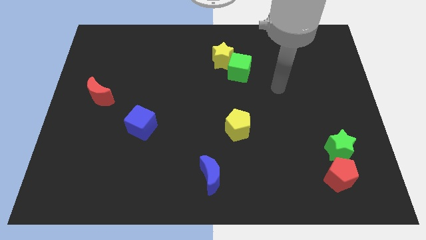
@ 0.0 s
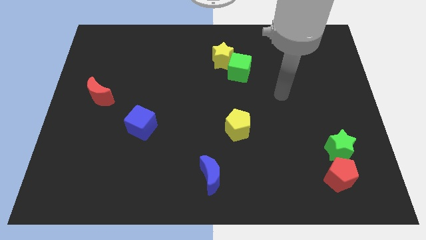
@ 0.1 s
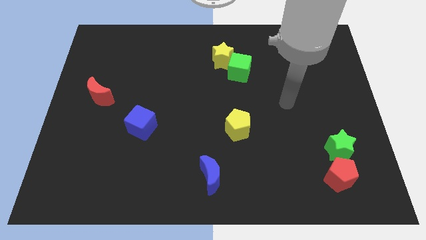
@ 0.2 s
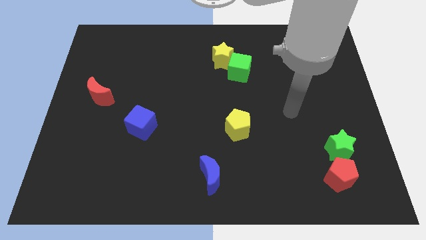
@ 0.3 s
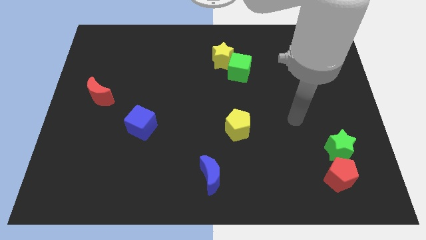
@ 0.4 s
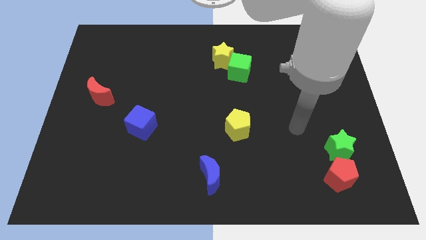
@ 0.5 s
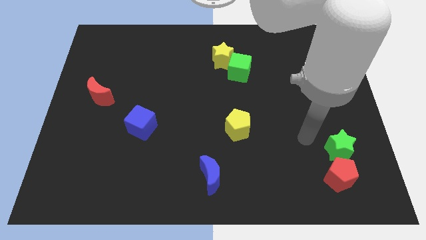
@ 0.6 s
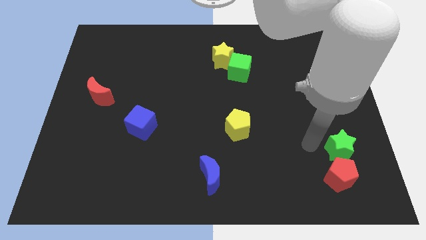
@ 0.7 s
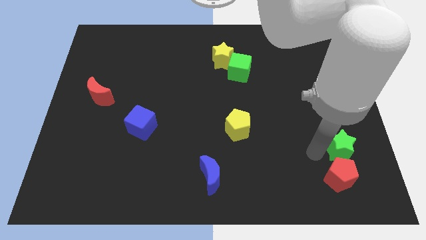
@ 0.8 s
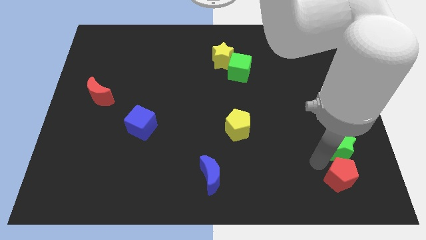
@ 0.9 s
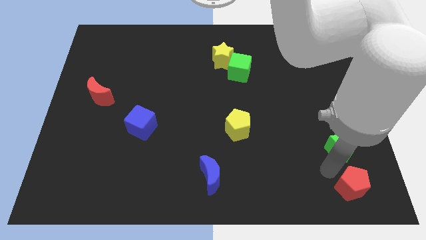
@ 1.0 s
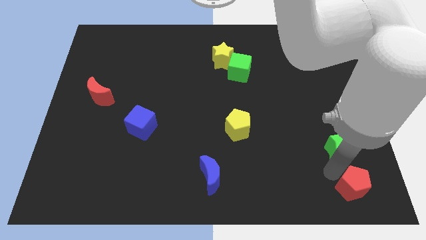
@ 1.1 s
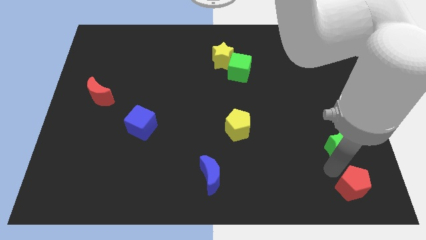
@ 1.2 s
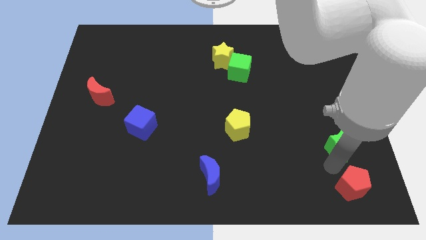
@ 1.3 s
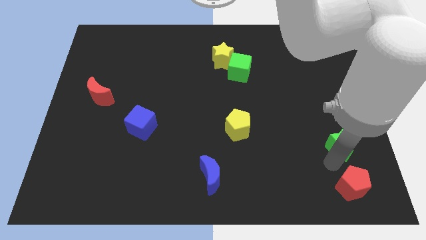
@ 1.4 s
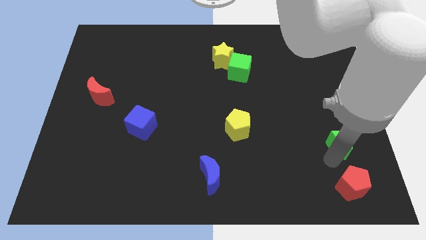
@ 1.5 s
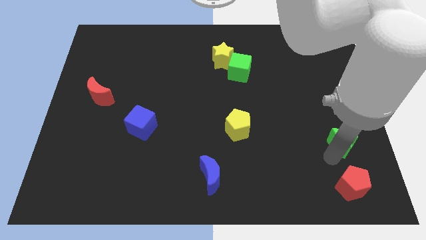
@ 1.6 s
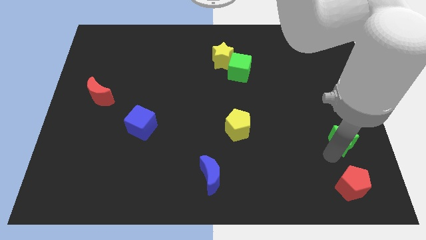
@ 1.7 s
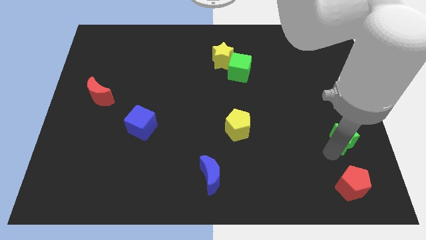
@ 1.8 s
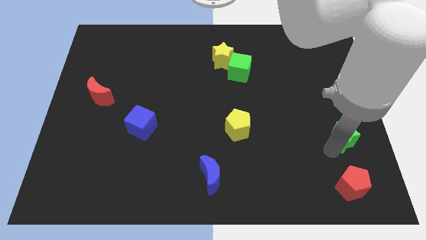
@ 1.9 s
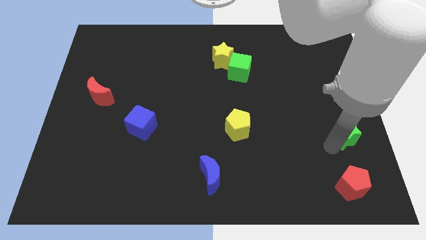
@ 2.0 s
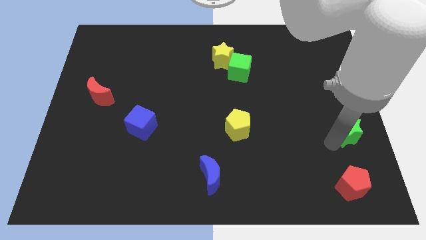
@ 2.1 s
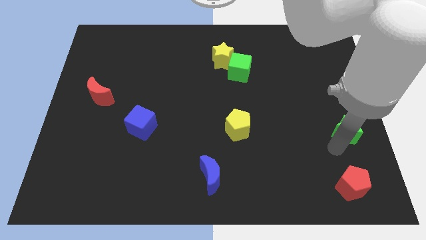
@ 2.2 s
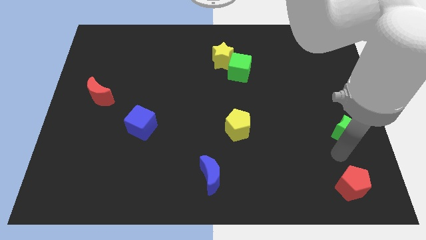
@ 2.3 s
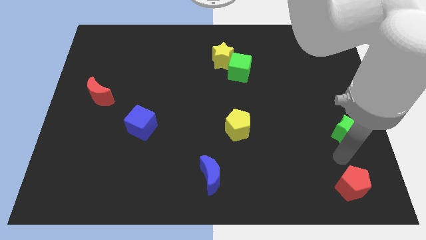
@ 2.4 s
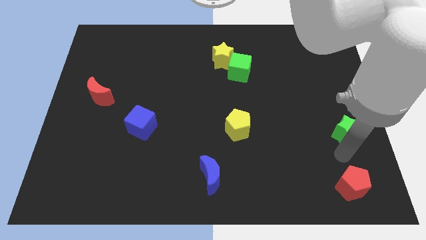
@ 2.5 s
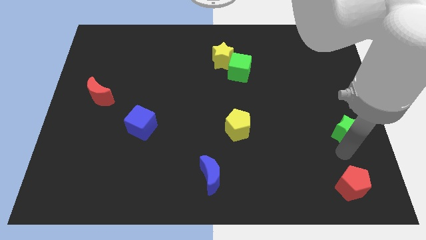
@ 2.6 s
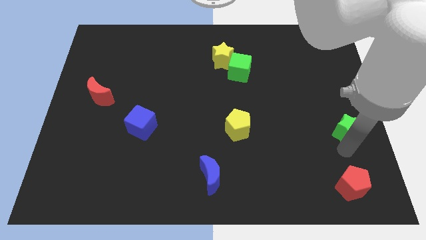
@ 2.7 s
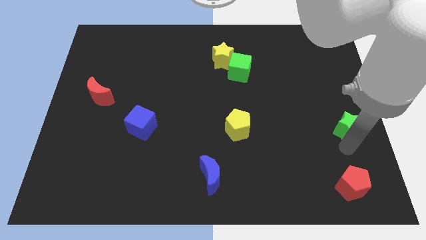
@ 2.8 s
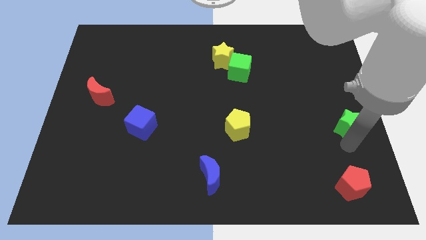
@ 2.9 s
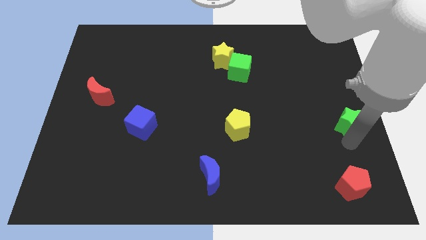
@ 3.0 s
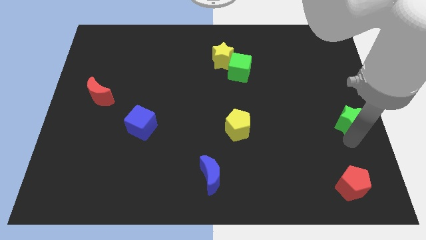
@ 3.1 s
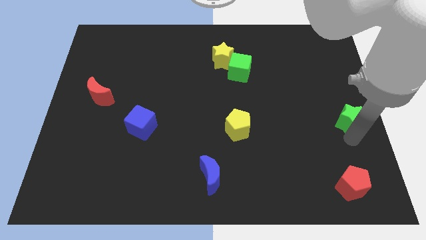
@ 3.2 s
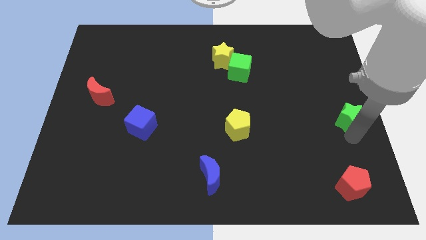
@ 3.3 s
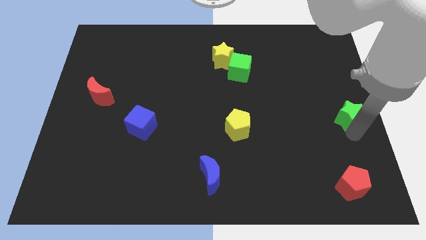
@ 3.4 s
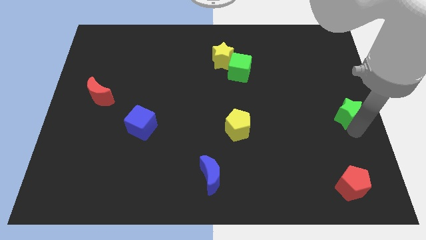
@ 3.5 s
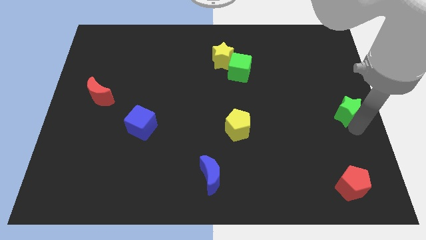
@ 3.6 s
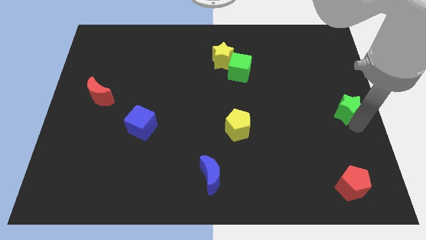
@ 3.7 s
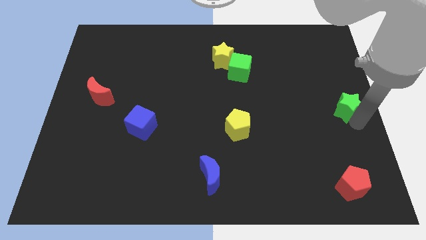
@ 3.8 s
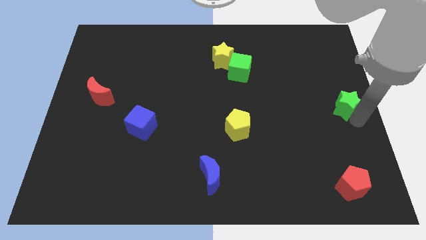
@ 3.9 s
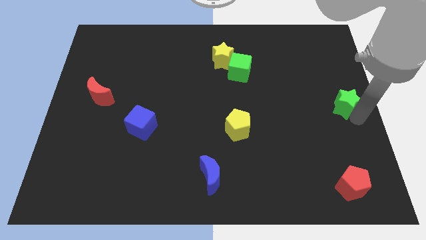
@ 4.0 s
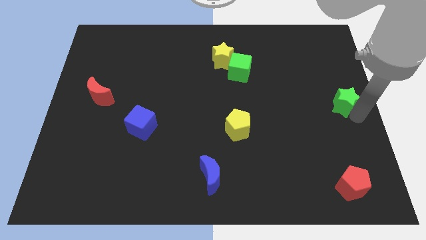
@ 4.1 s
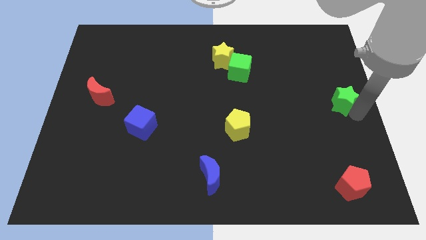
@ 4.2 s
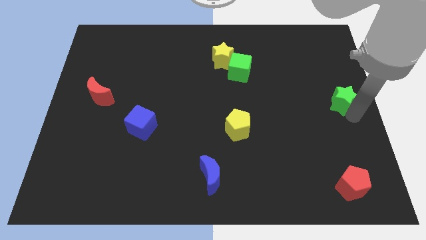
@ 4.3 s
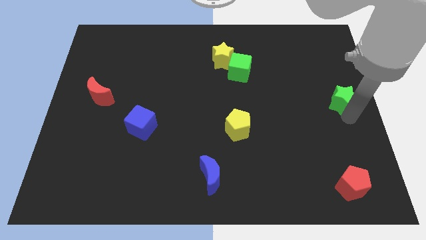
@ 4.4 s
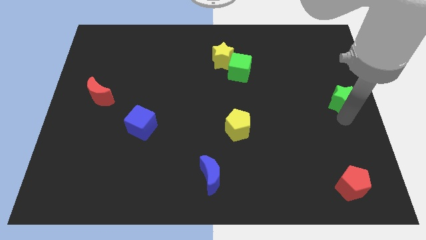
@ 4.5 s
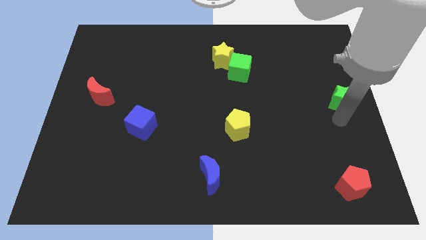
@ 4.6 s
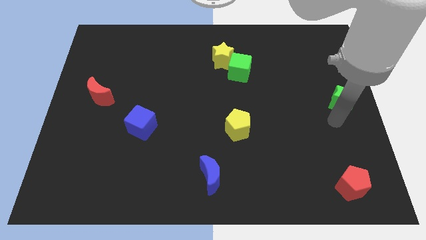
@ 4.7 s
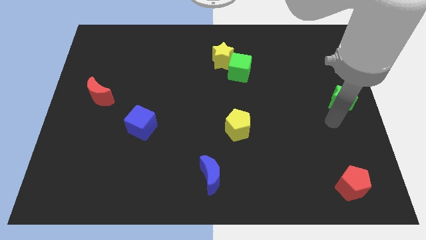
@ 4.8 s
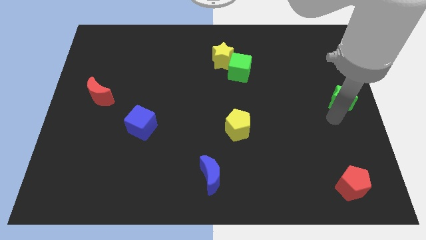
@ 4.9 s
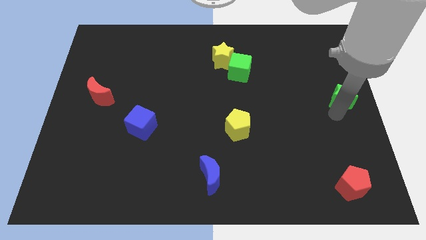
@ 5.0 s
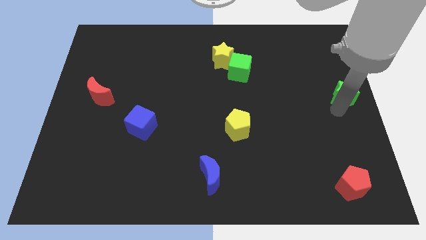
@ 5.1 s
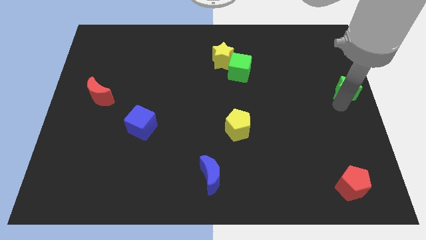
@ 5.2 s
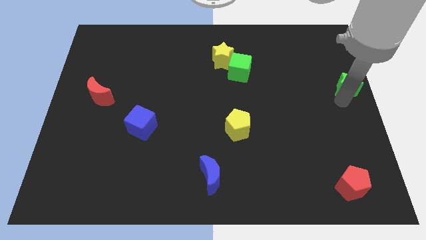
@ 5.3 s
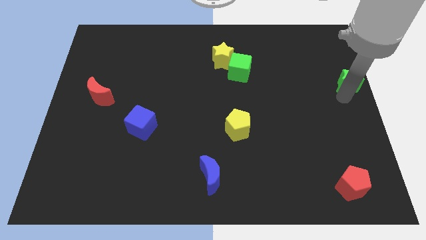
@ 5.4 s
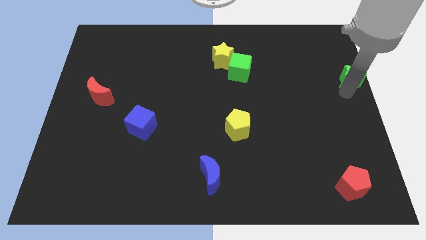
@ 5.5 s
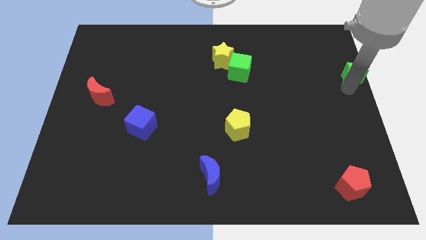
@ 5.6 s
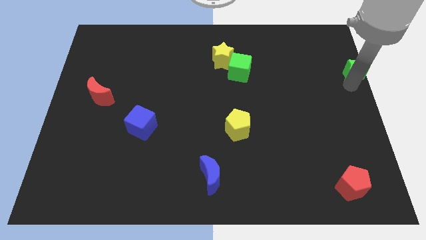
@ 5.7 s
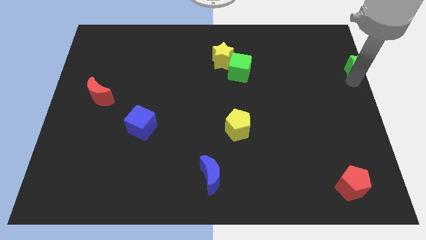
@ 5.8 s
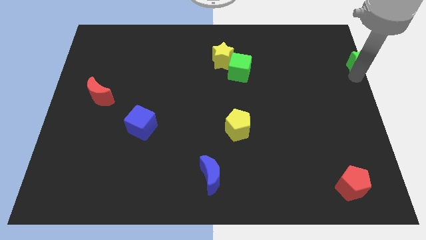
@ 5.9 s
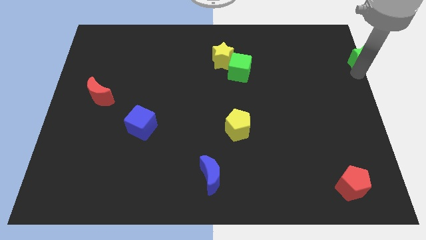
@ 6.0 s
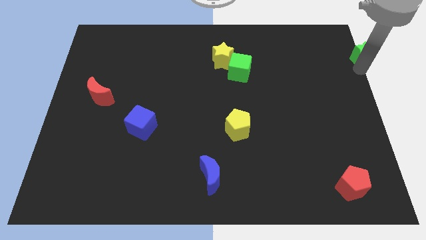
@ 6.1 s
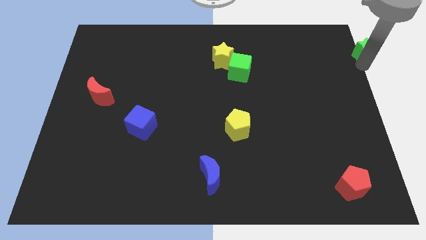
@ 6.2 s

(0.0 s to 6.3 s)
push the green star to the top right
